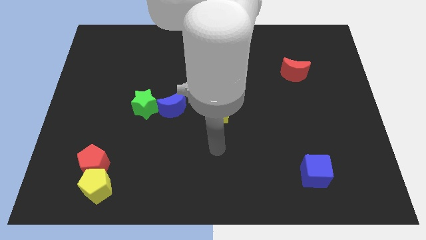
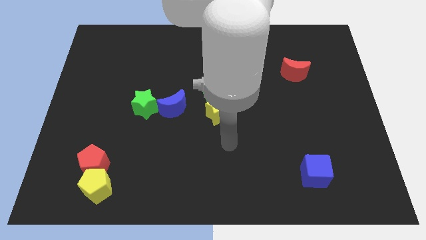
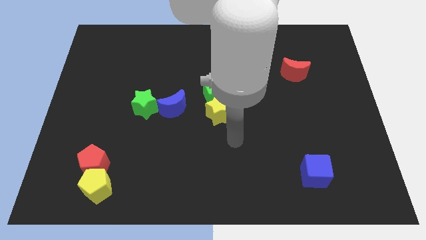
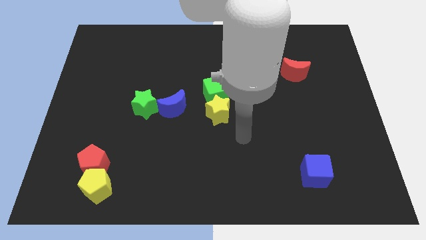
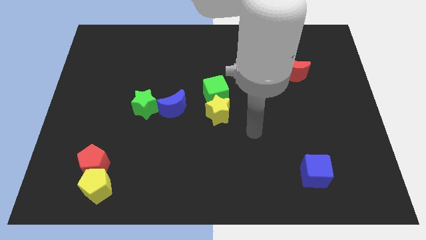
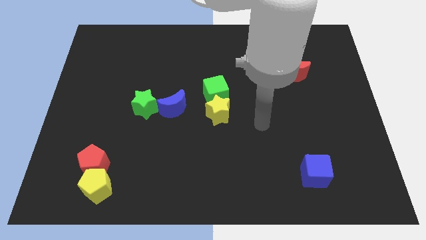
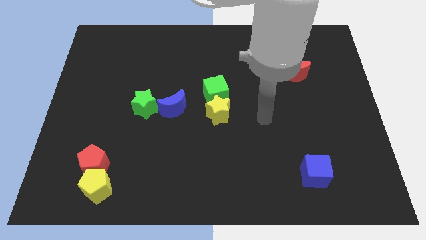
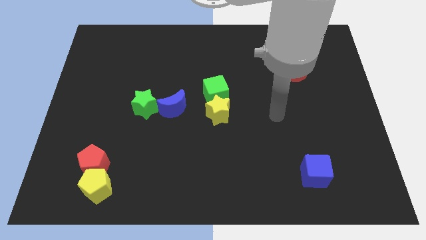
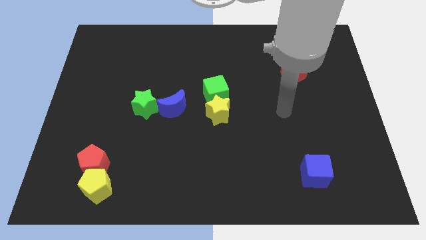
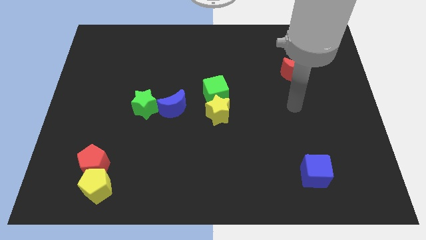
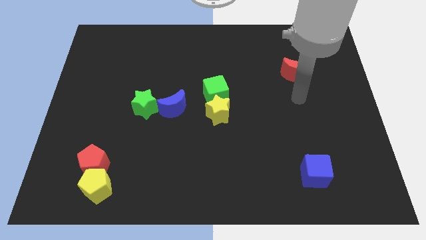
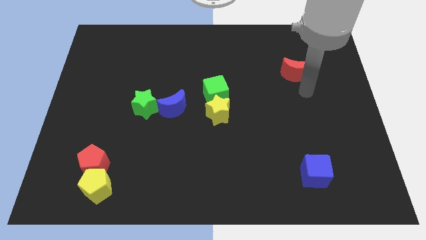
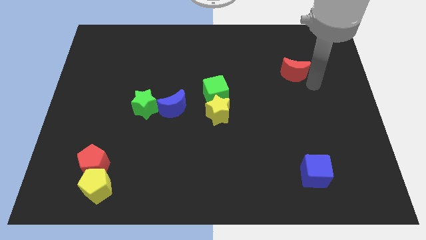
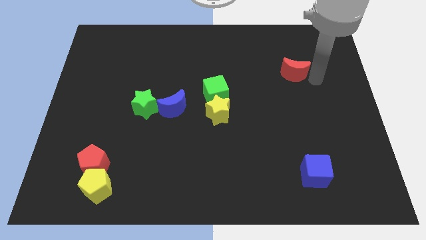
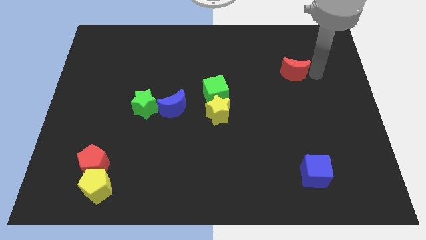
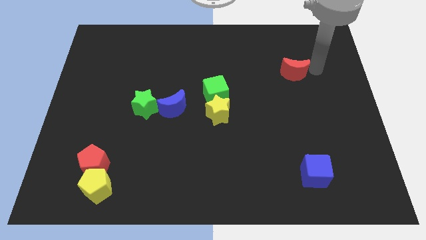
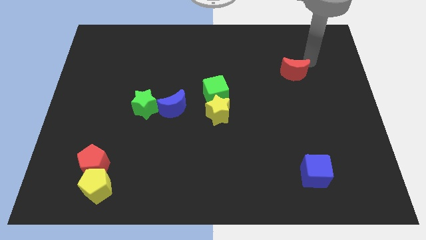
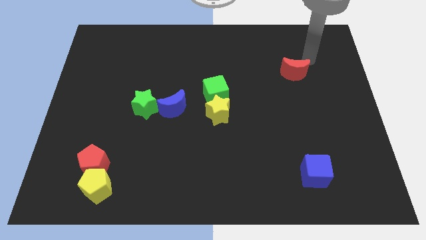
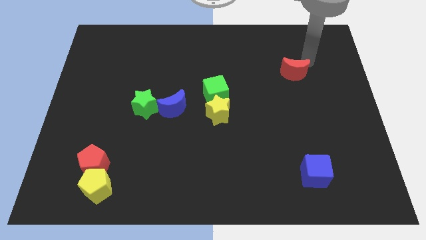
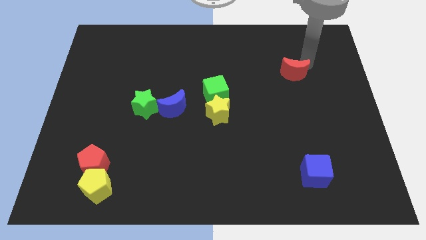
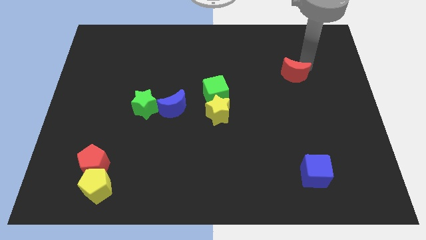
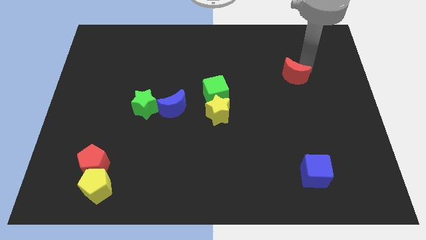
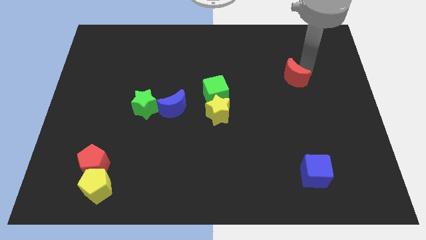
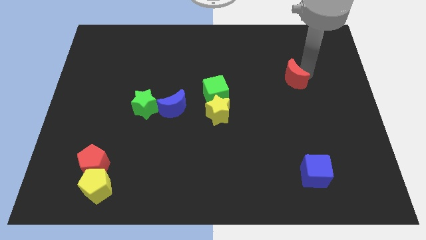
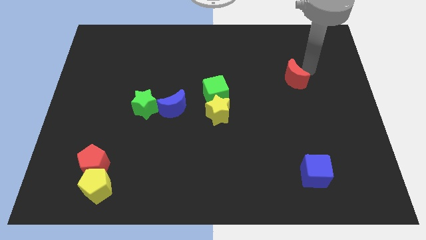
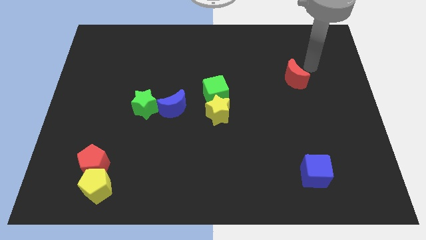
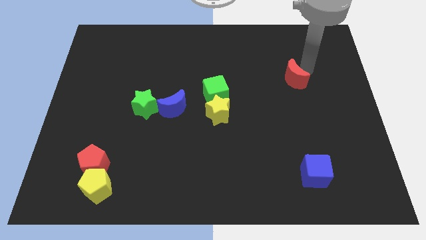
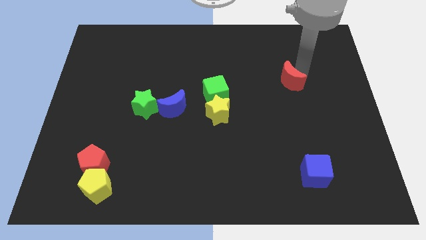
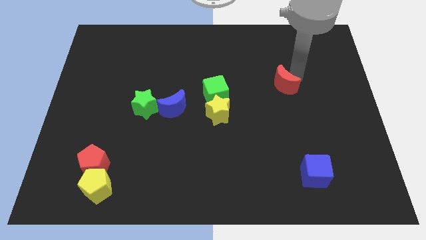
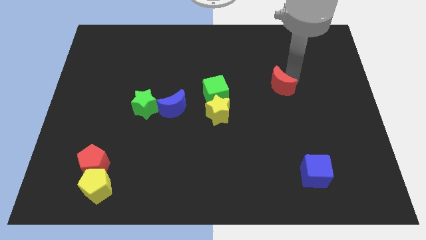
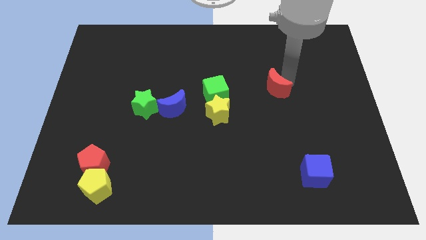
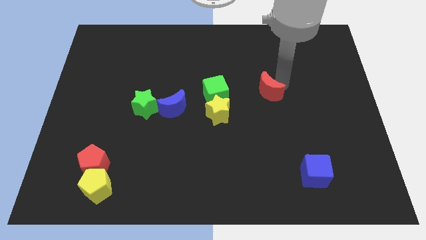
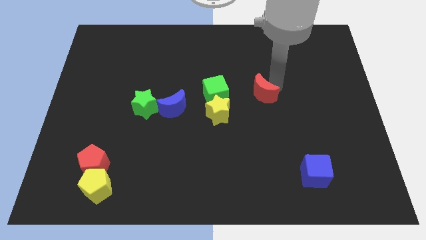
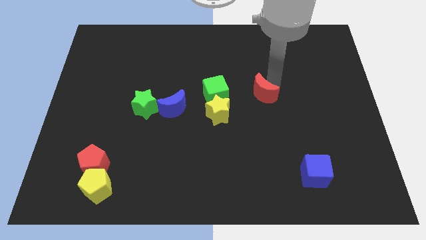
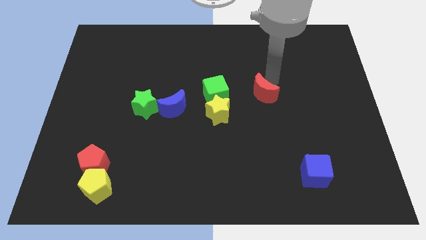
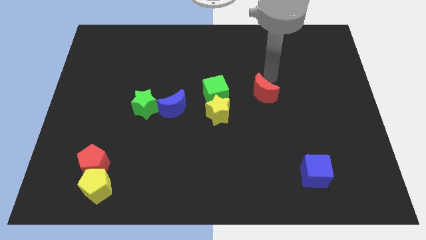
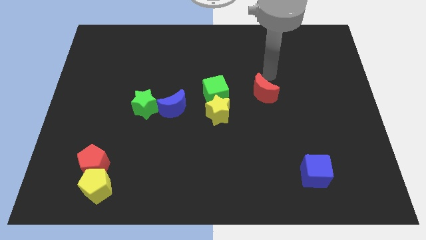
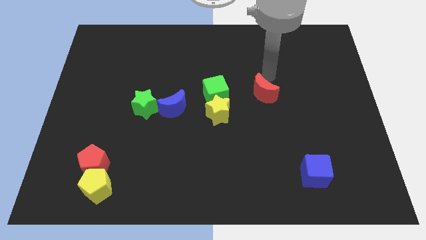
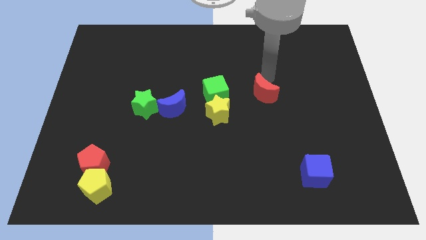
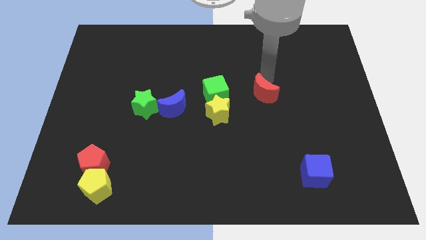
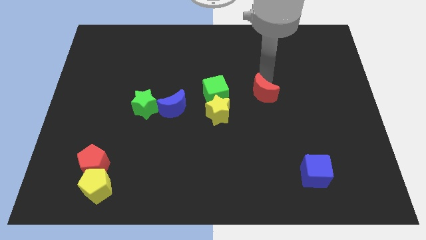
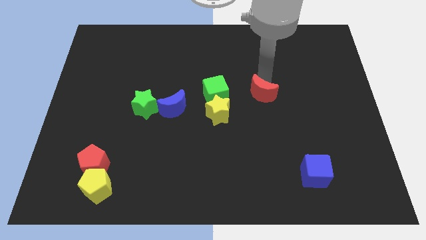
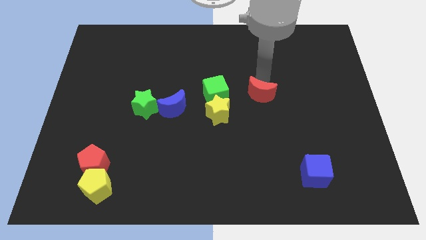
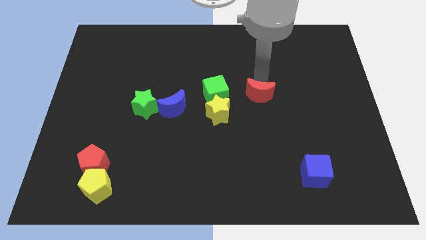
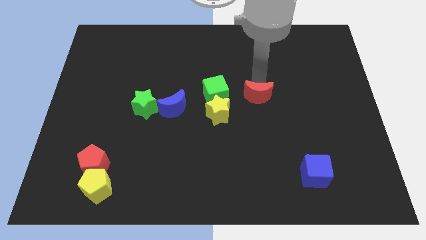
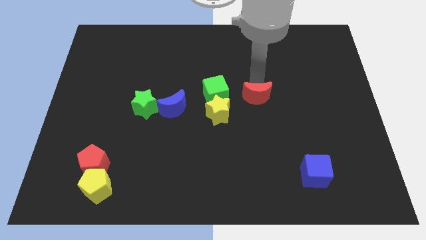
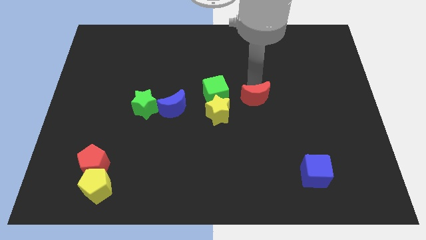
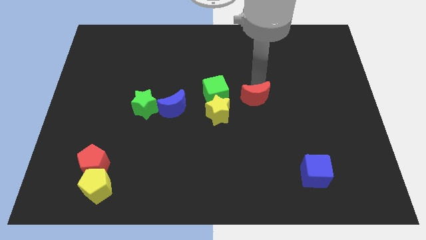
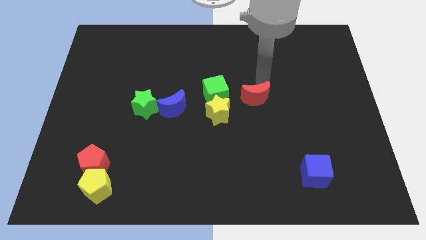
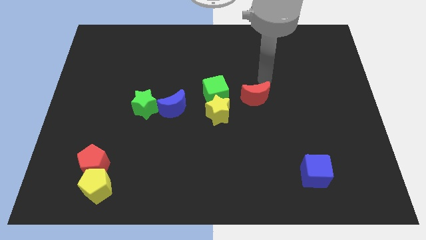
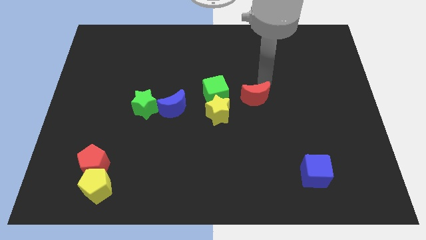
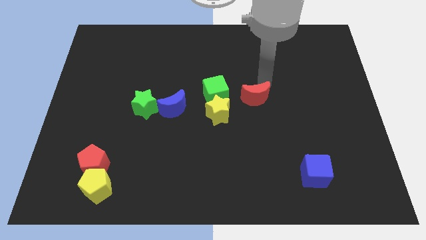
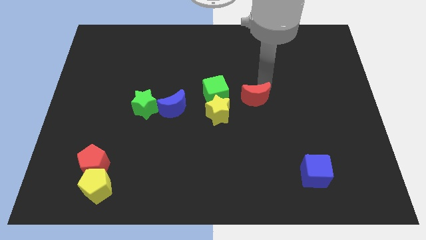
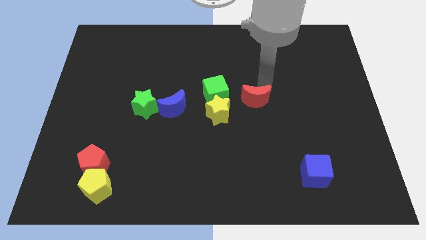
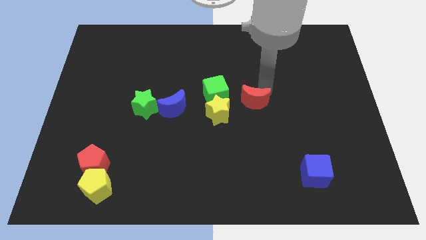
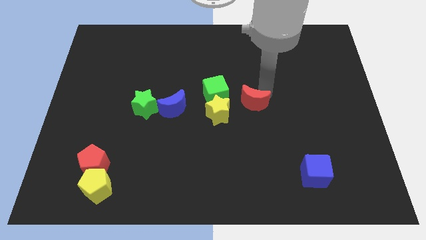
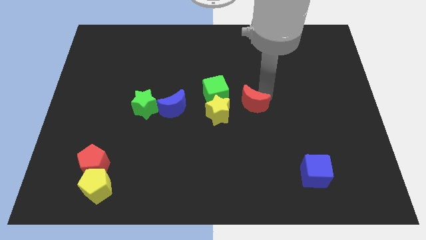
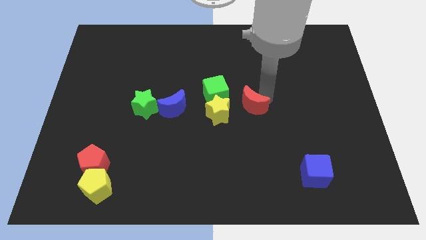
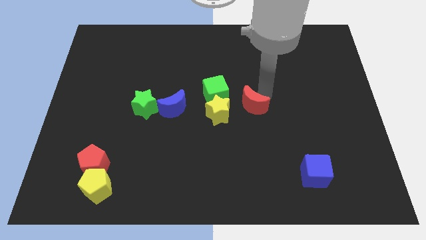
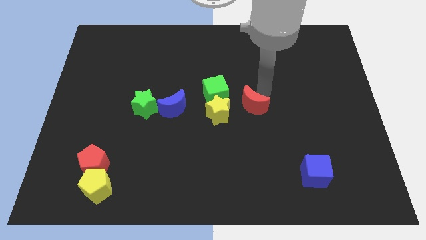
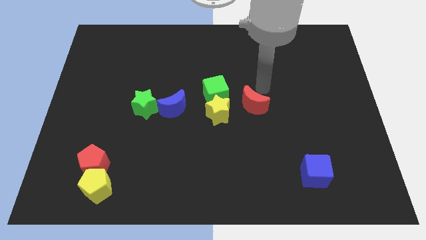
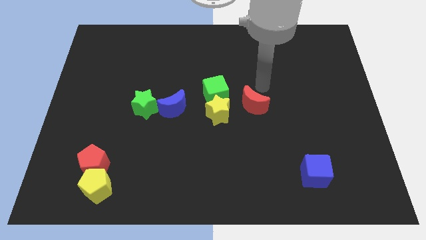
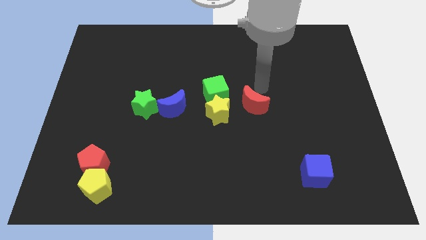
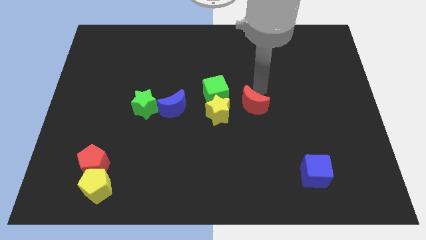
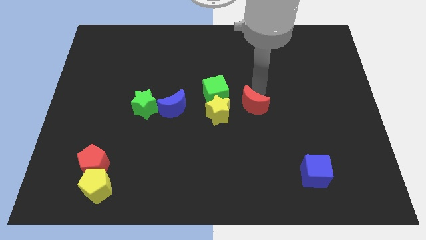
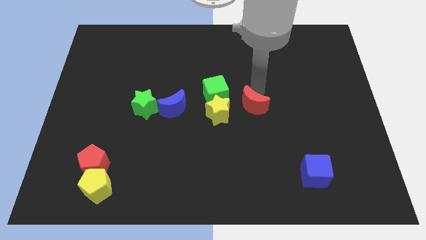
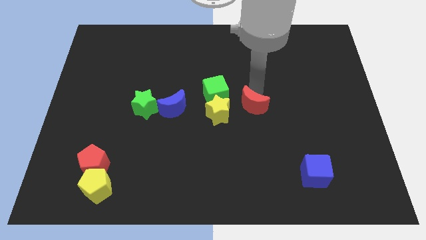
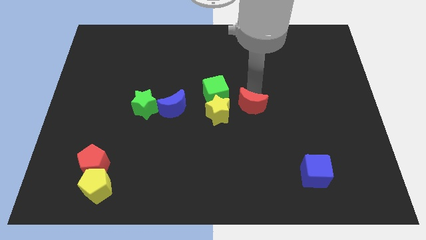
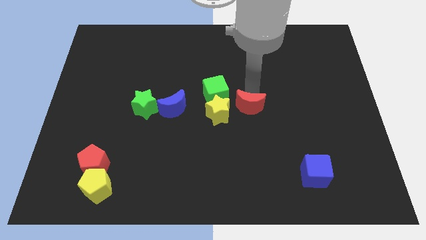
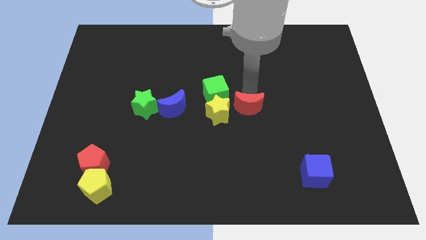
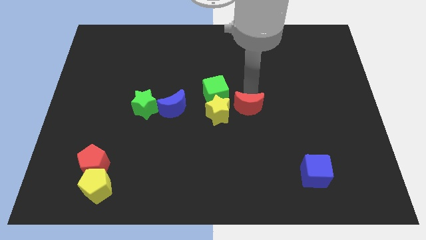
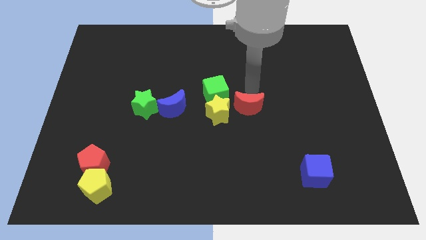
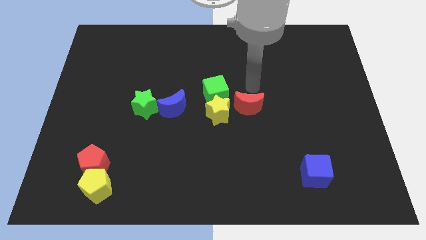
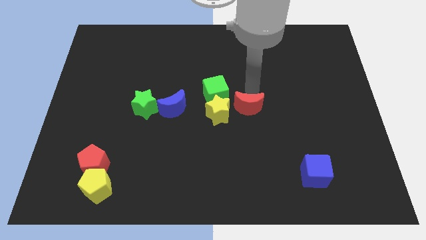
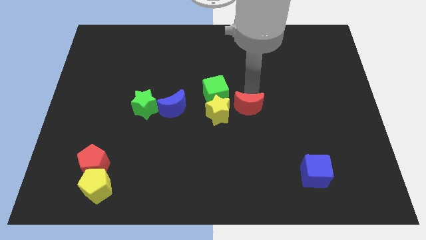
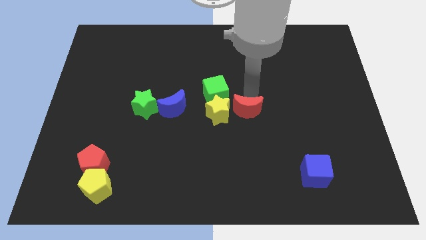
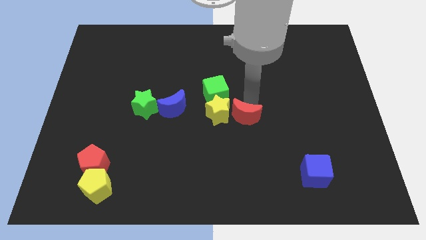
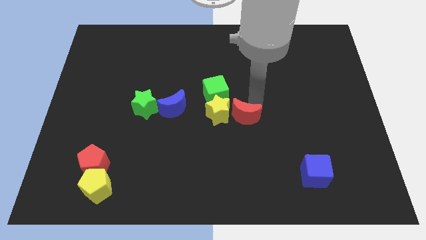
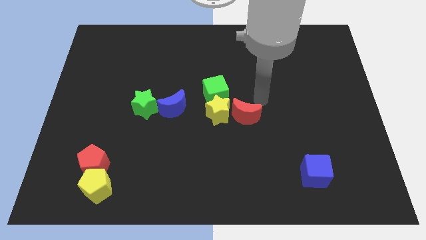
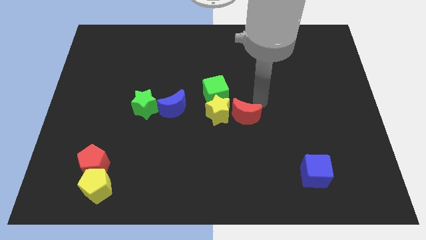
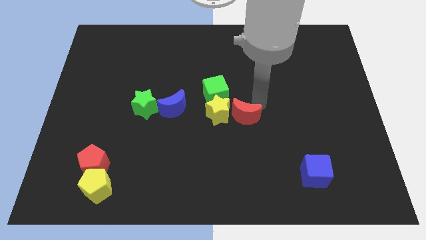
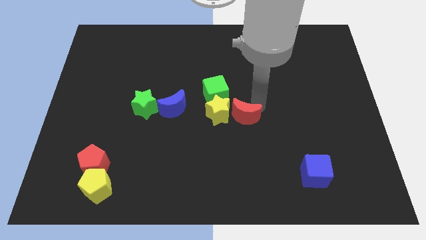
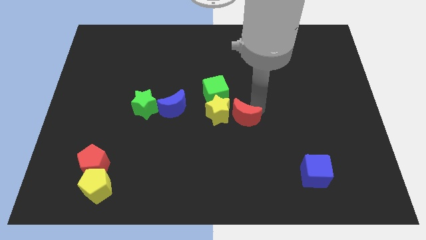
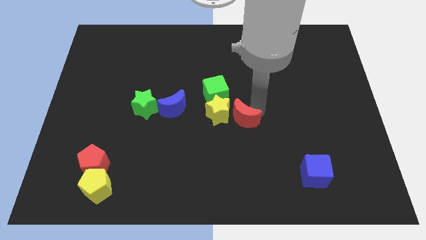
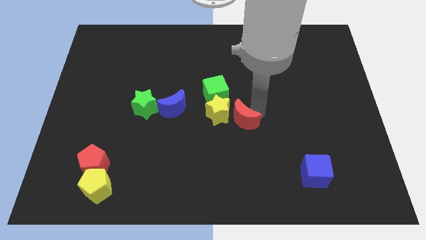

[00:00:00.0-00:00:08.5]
slide the red moon diagonally downwards and left
